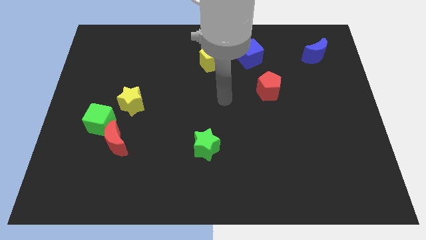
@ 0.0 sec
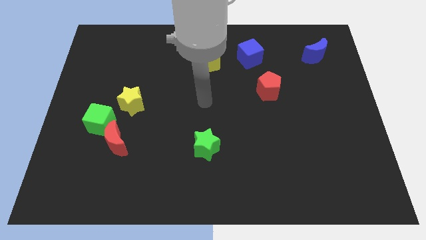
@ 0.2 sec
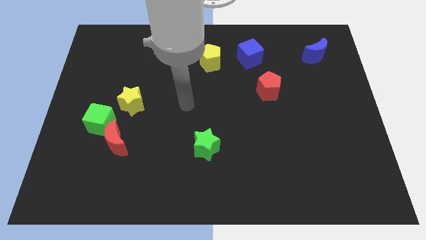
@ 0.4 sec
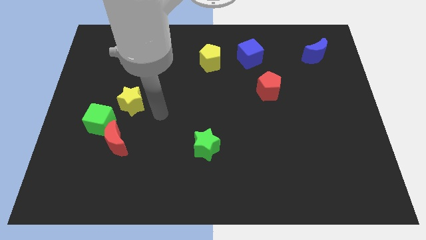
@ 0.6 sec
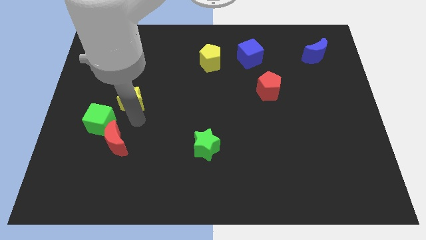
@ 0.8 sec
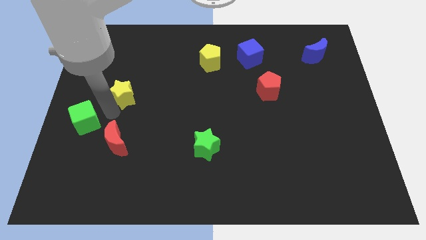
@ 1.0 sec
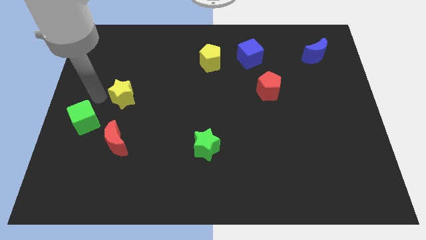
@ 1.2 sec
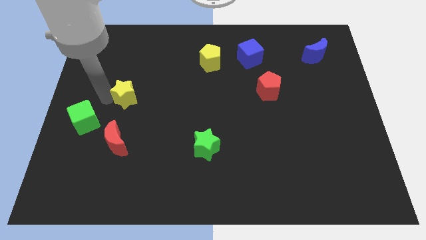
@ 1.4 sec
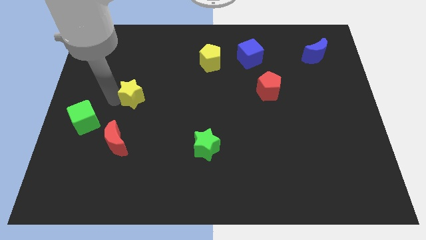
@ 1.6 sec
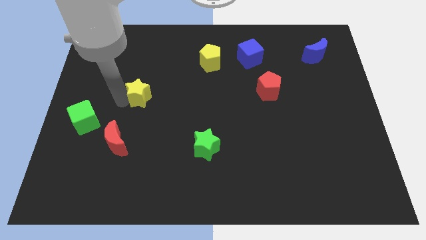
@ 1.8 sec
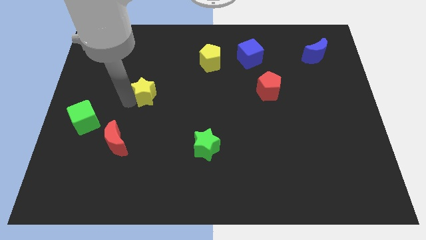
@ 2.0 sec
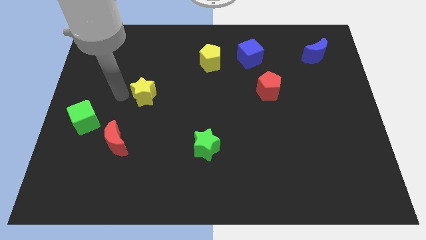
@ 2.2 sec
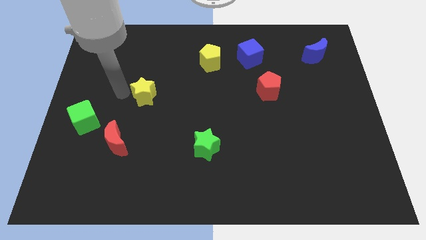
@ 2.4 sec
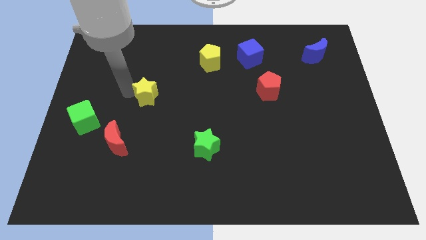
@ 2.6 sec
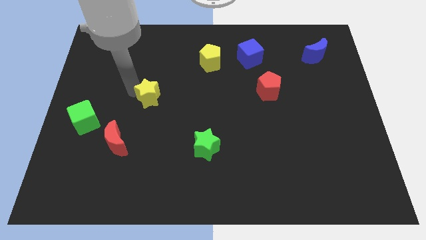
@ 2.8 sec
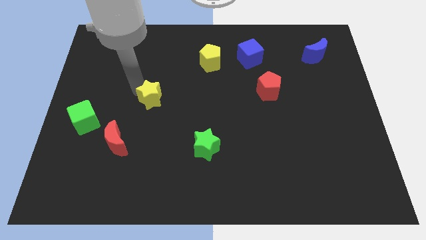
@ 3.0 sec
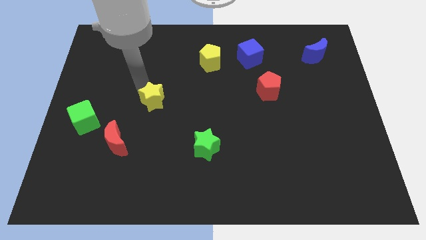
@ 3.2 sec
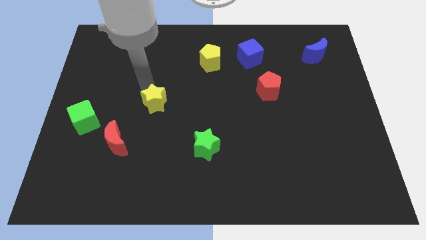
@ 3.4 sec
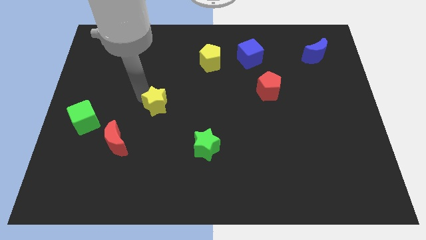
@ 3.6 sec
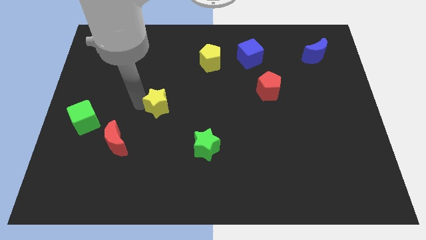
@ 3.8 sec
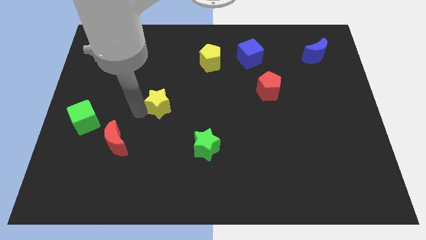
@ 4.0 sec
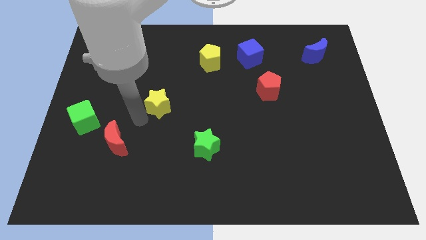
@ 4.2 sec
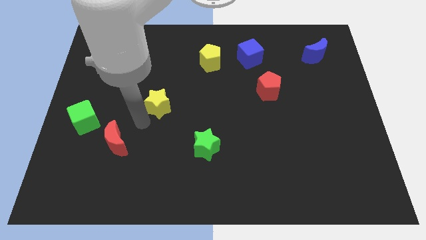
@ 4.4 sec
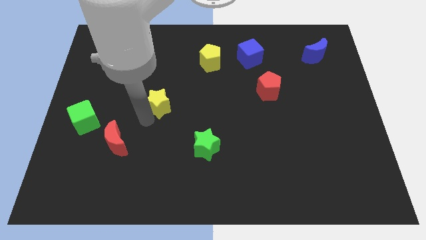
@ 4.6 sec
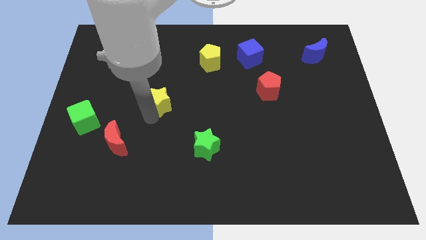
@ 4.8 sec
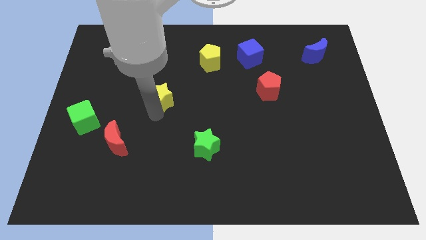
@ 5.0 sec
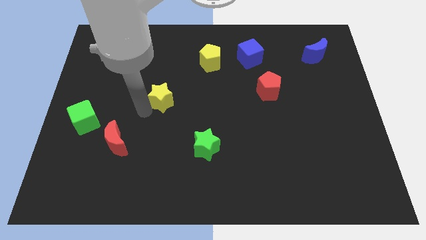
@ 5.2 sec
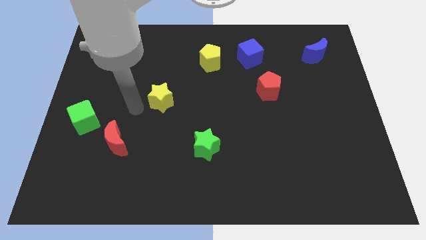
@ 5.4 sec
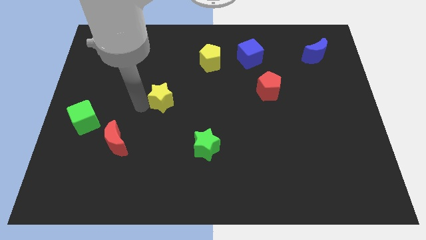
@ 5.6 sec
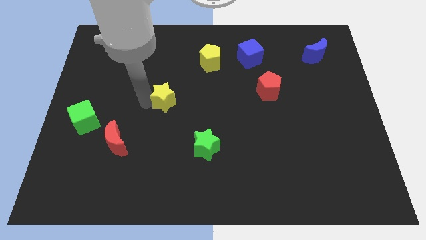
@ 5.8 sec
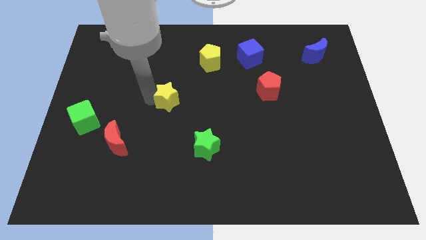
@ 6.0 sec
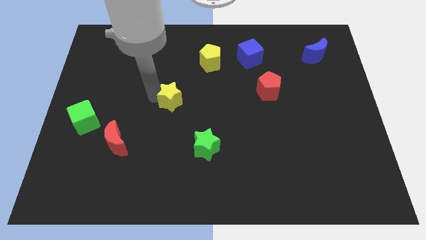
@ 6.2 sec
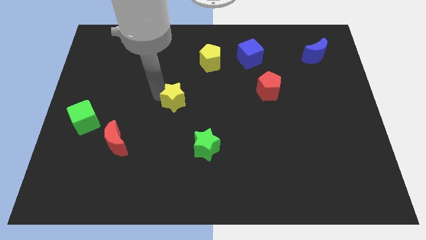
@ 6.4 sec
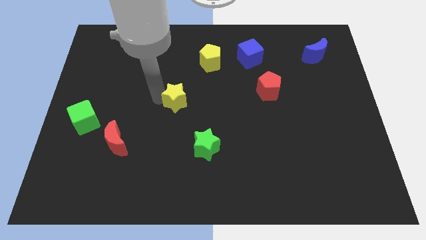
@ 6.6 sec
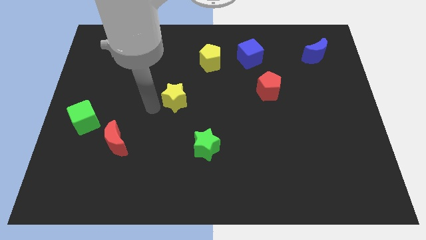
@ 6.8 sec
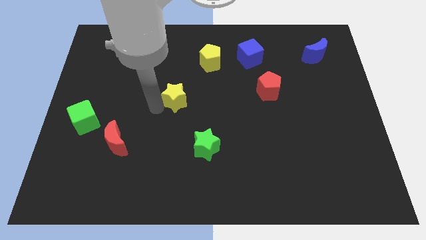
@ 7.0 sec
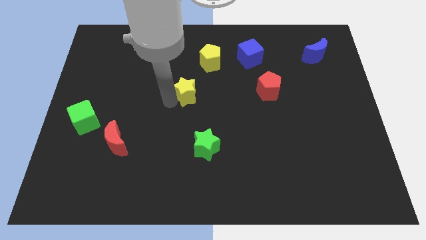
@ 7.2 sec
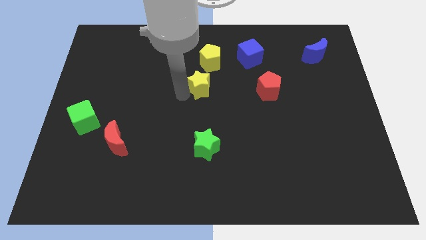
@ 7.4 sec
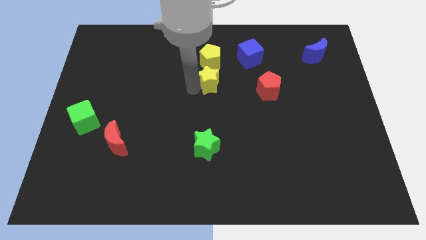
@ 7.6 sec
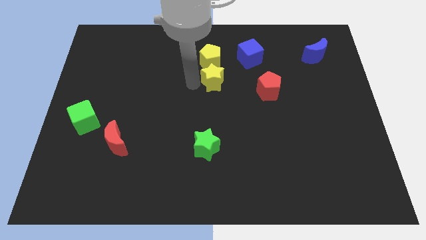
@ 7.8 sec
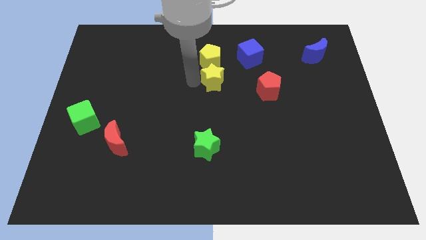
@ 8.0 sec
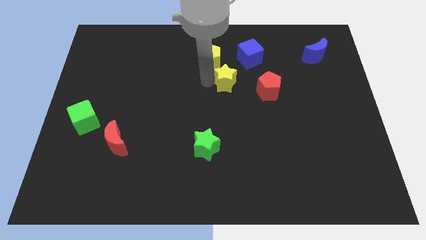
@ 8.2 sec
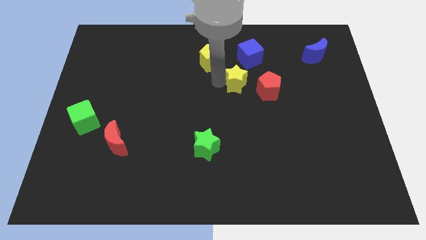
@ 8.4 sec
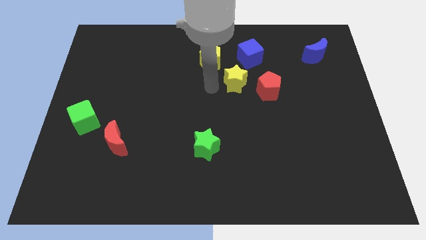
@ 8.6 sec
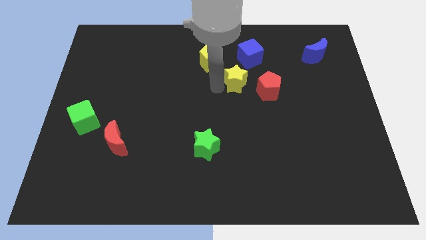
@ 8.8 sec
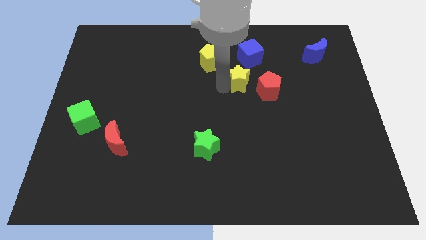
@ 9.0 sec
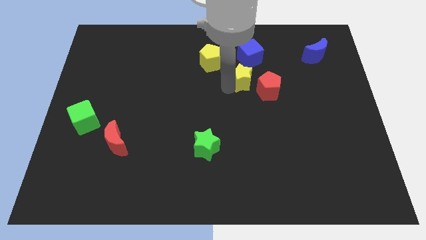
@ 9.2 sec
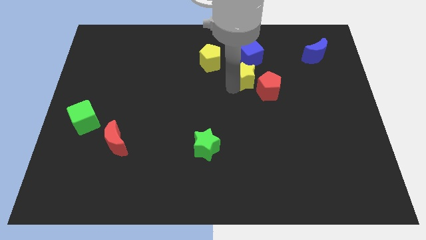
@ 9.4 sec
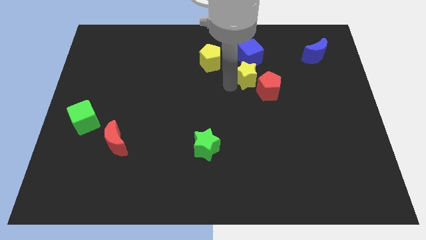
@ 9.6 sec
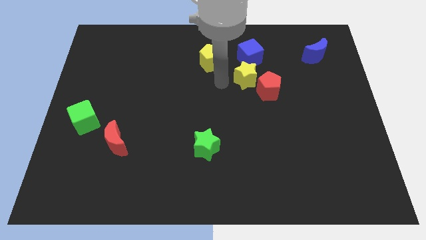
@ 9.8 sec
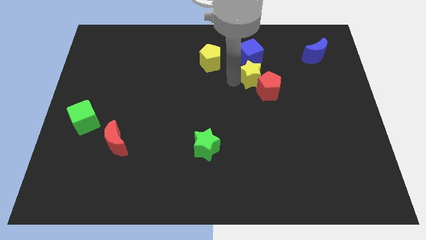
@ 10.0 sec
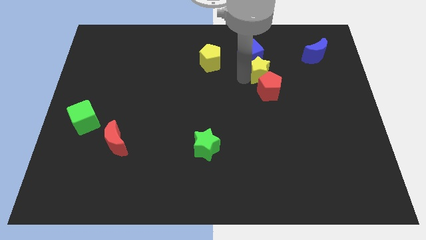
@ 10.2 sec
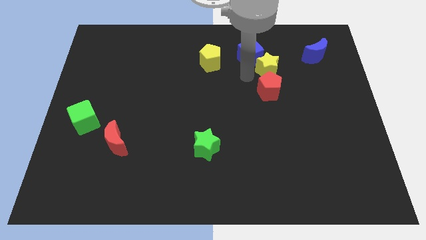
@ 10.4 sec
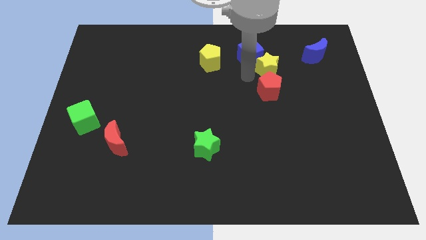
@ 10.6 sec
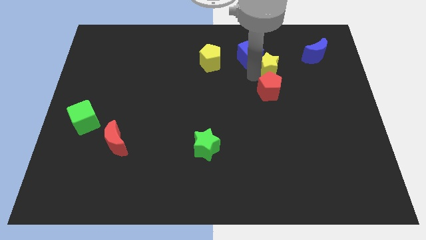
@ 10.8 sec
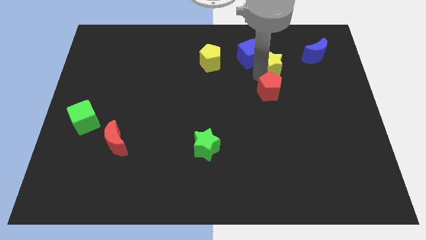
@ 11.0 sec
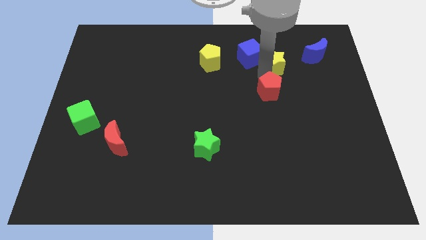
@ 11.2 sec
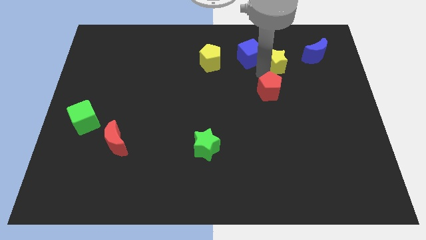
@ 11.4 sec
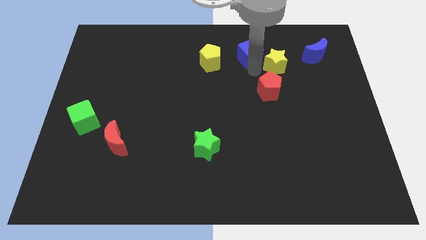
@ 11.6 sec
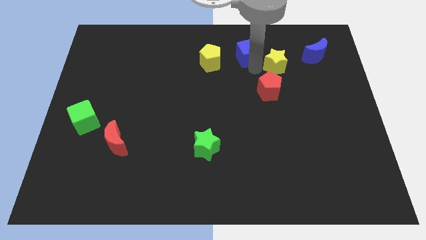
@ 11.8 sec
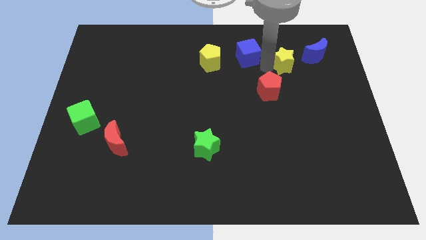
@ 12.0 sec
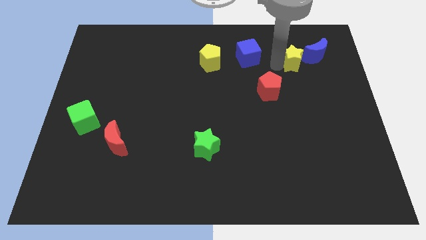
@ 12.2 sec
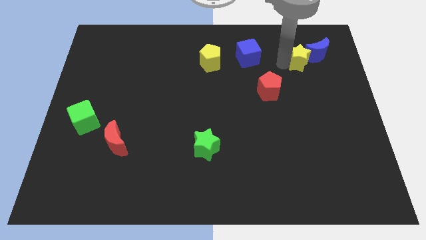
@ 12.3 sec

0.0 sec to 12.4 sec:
put the yellow star close to the blue moon
